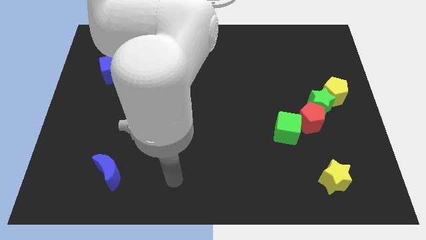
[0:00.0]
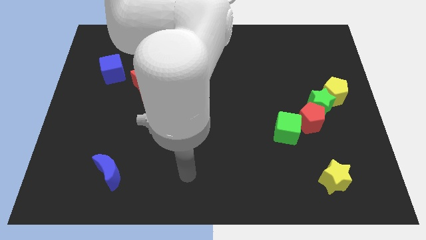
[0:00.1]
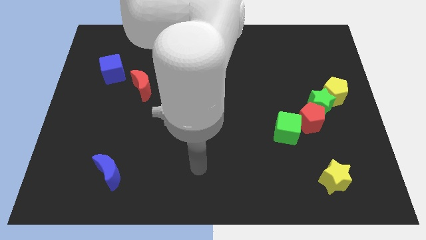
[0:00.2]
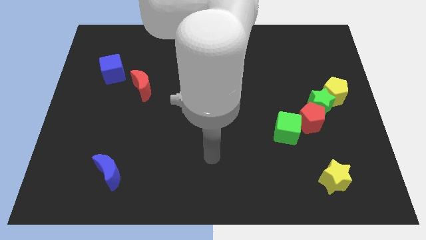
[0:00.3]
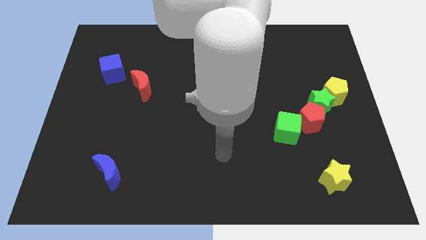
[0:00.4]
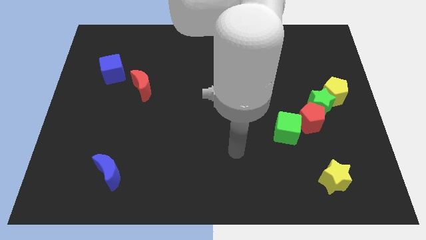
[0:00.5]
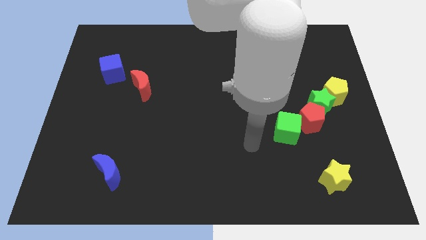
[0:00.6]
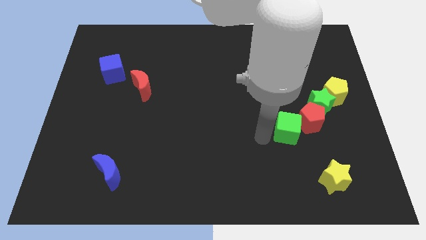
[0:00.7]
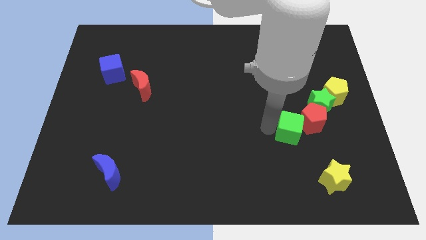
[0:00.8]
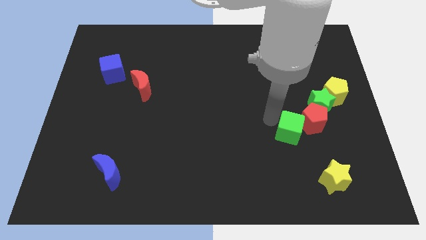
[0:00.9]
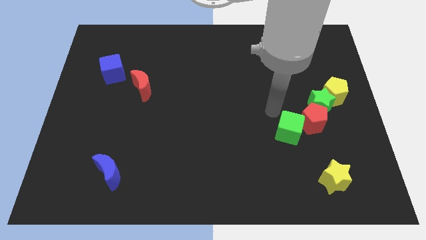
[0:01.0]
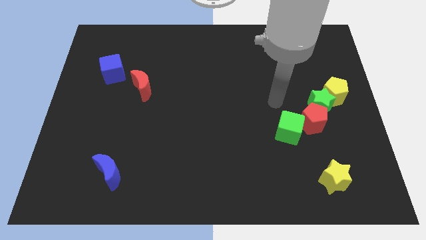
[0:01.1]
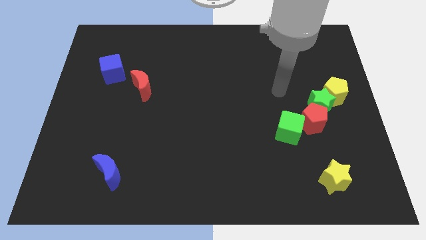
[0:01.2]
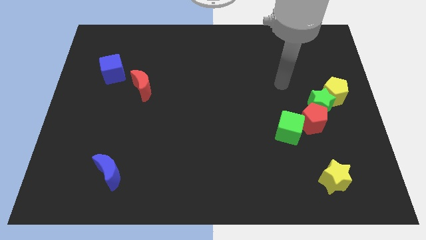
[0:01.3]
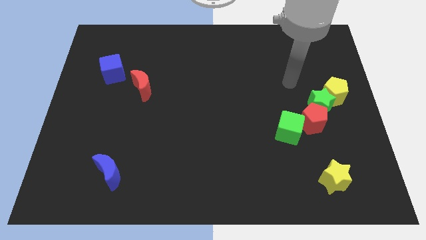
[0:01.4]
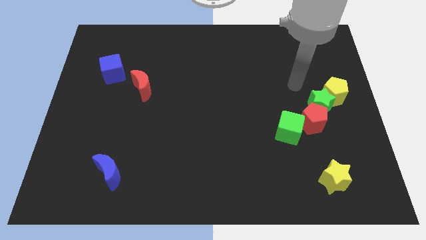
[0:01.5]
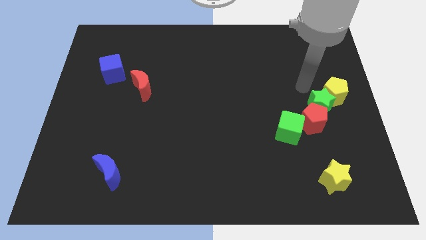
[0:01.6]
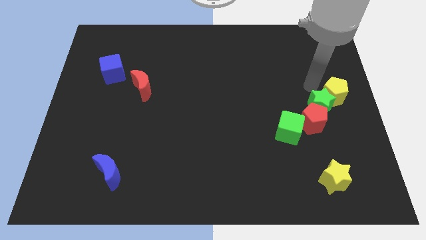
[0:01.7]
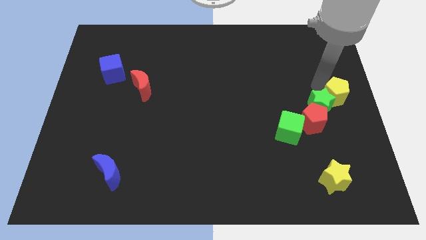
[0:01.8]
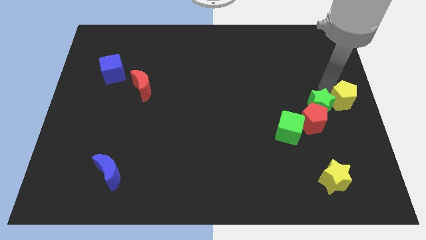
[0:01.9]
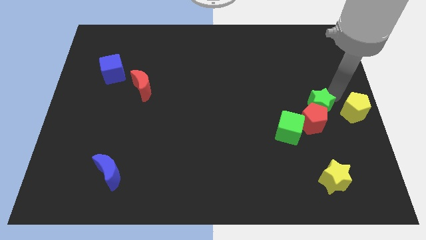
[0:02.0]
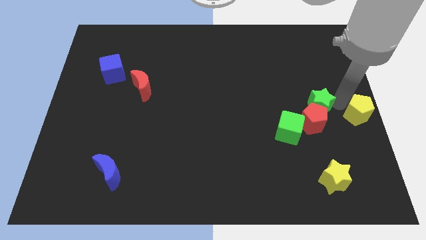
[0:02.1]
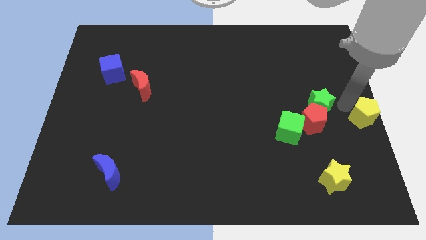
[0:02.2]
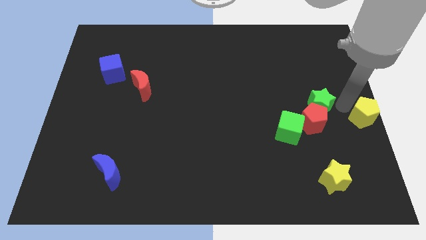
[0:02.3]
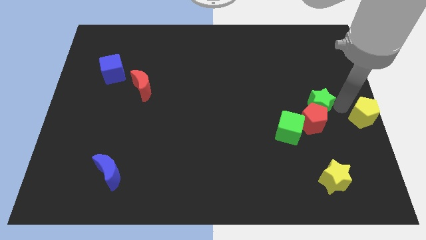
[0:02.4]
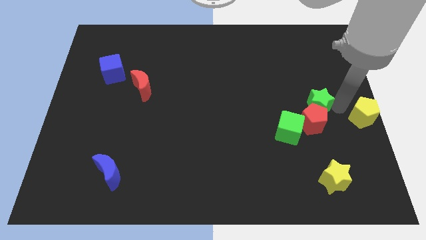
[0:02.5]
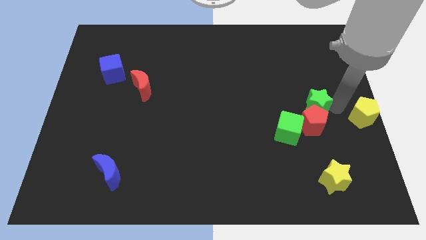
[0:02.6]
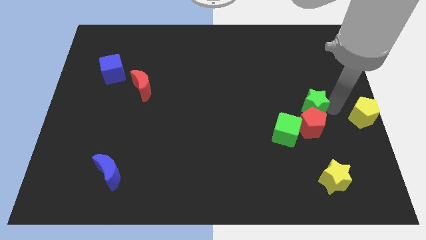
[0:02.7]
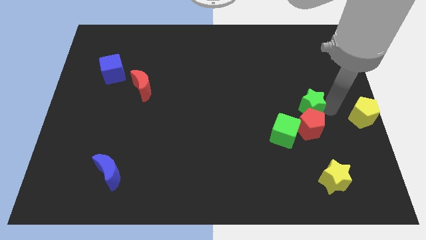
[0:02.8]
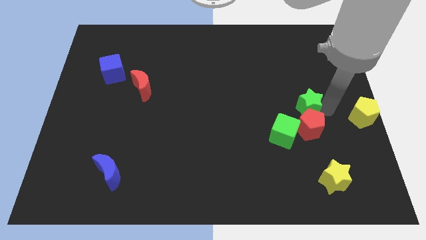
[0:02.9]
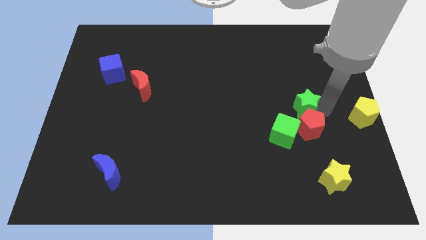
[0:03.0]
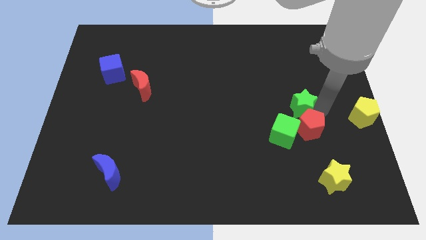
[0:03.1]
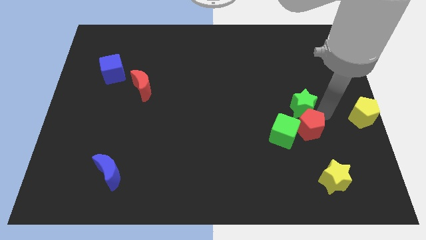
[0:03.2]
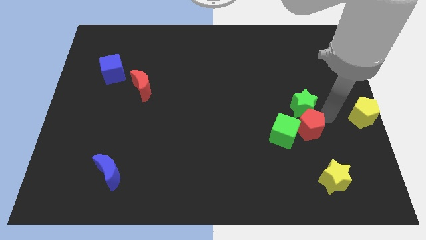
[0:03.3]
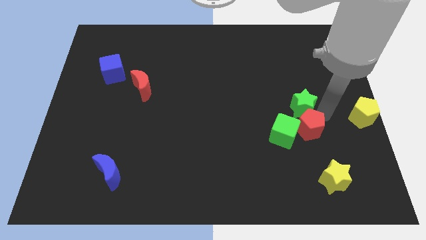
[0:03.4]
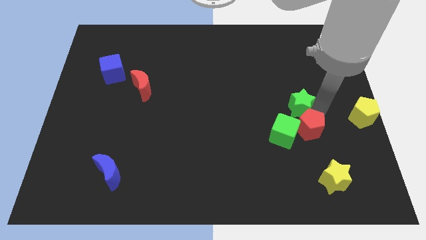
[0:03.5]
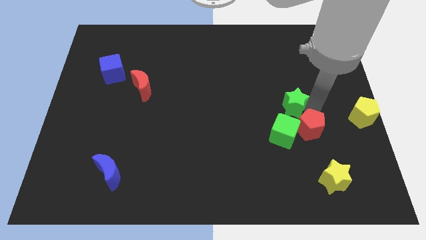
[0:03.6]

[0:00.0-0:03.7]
move the green star away from the red pentagon and yellow pentagon

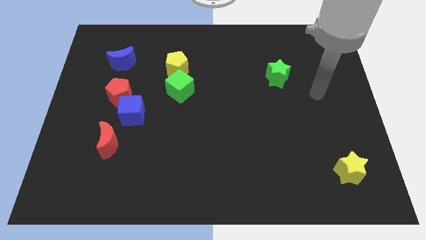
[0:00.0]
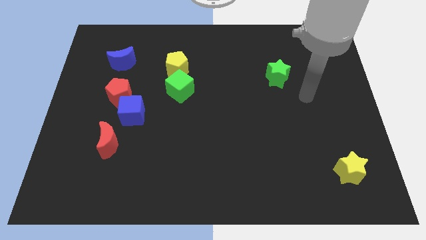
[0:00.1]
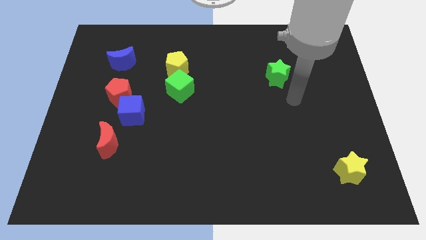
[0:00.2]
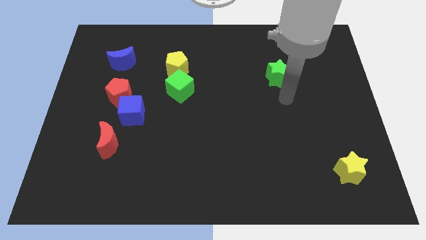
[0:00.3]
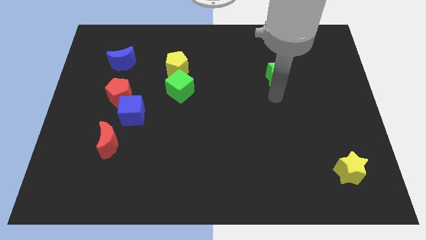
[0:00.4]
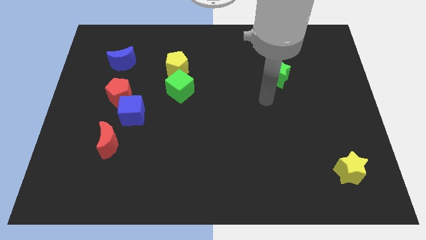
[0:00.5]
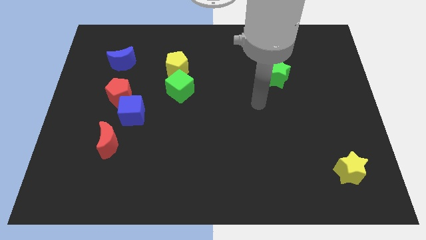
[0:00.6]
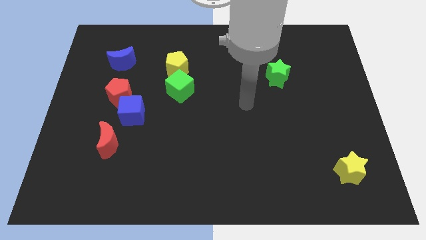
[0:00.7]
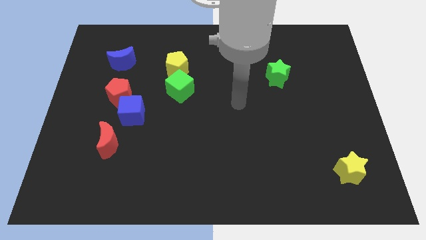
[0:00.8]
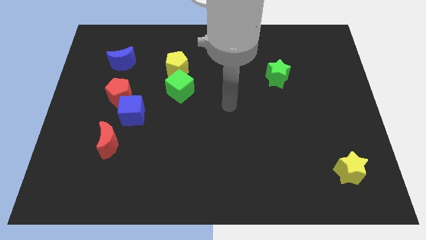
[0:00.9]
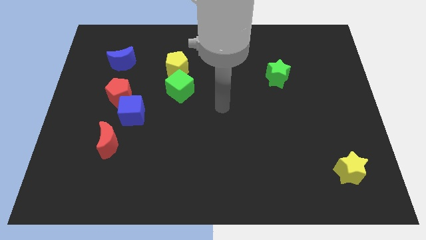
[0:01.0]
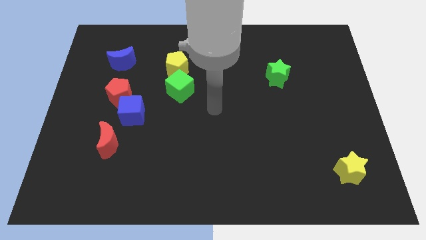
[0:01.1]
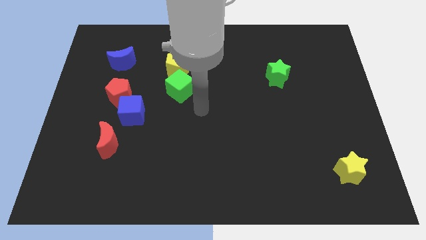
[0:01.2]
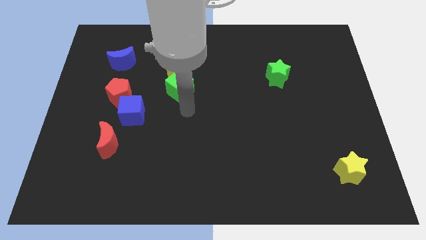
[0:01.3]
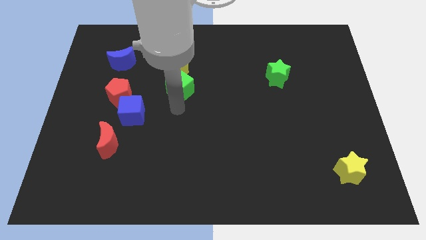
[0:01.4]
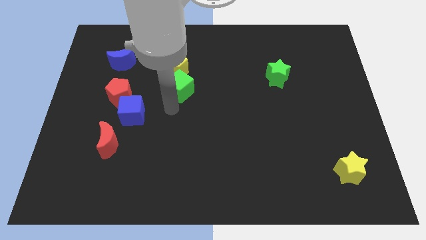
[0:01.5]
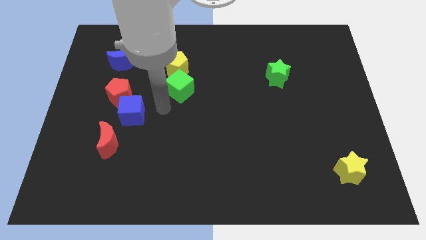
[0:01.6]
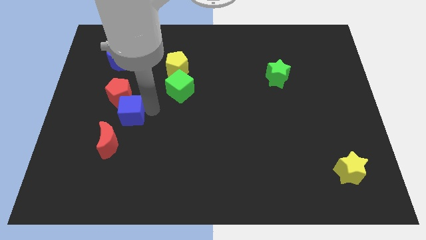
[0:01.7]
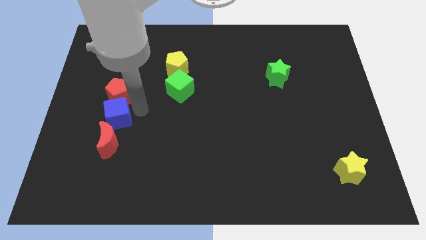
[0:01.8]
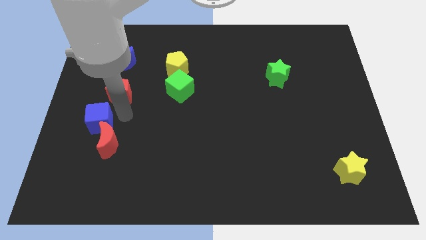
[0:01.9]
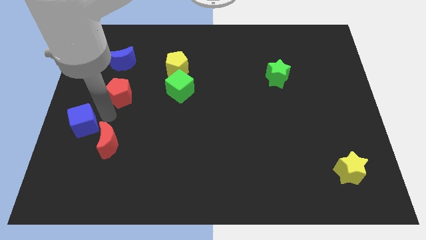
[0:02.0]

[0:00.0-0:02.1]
move the red pentagon away from the blue cube

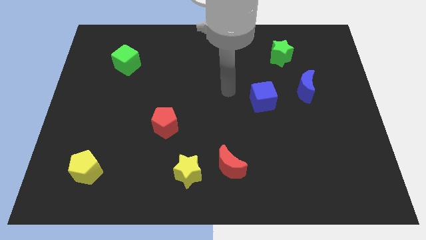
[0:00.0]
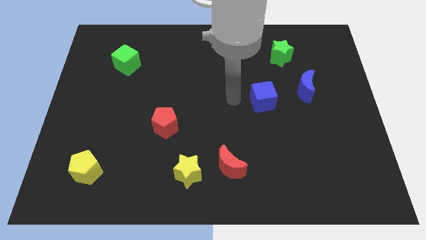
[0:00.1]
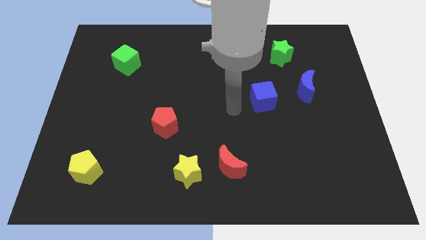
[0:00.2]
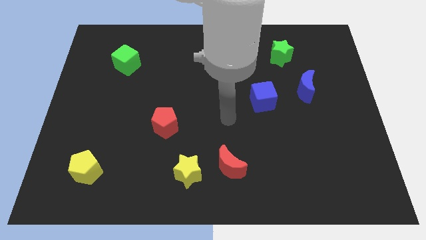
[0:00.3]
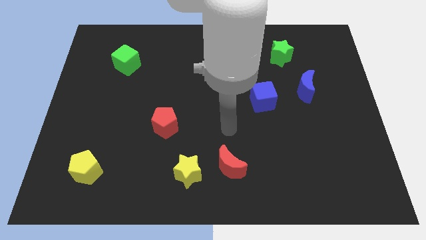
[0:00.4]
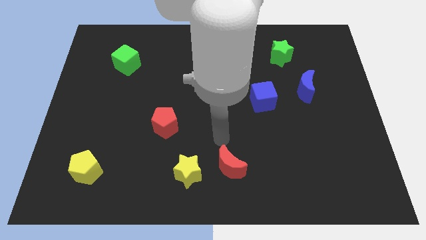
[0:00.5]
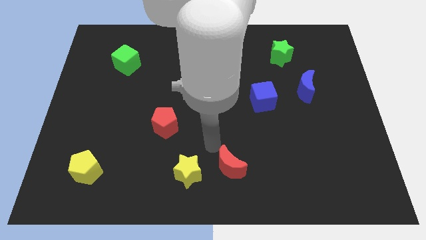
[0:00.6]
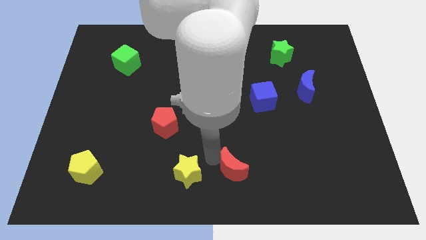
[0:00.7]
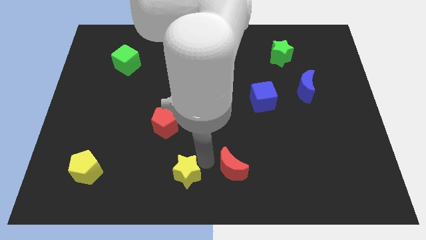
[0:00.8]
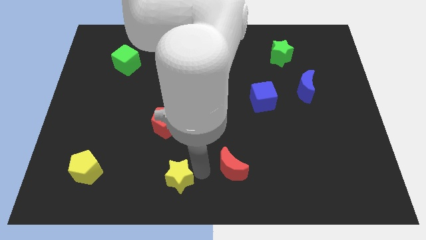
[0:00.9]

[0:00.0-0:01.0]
move the red moon away from the yellow star

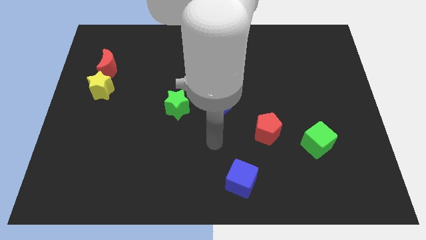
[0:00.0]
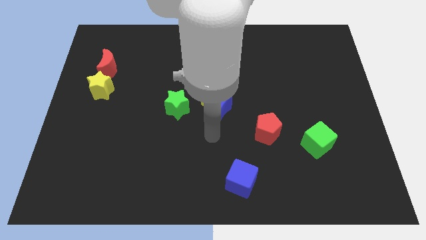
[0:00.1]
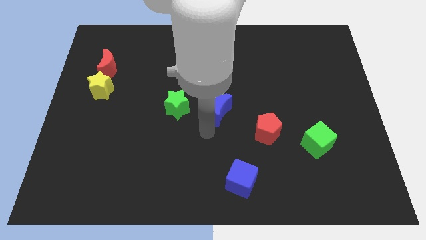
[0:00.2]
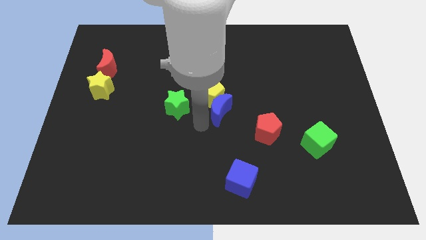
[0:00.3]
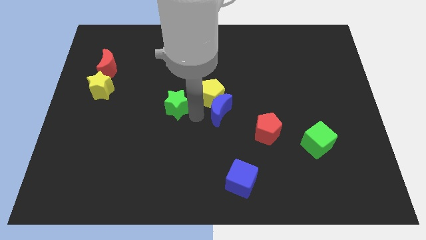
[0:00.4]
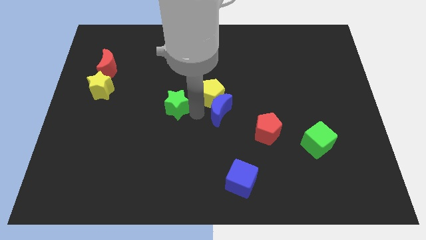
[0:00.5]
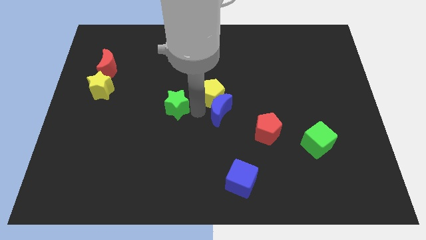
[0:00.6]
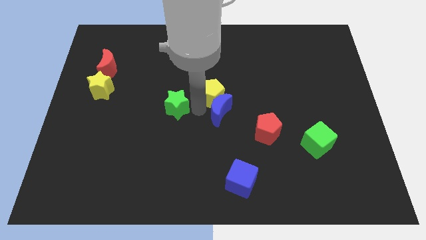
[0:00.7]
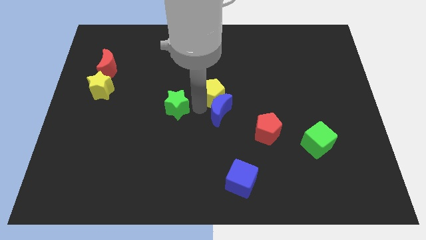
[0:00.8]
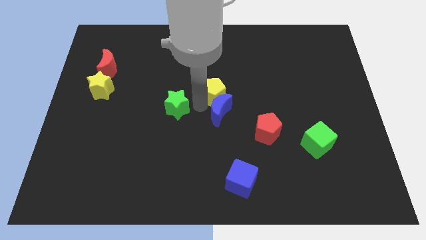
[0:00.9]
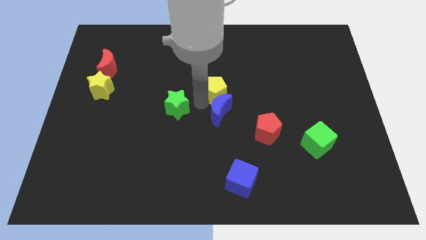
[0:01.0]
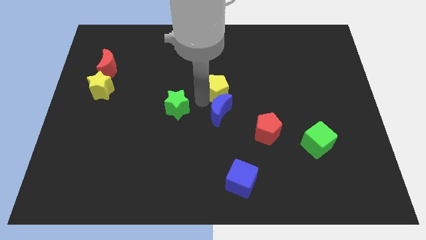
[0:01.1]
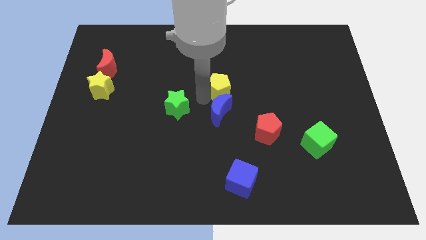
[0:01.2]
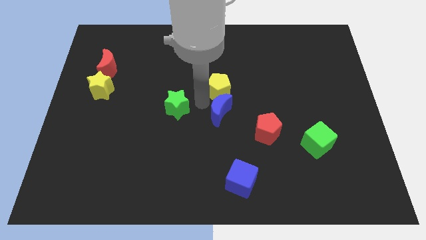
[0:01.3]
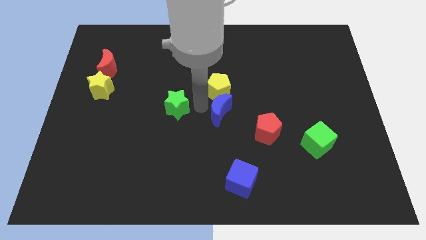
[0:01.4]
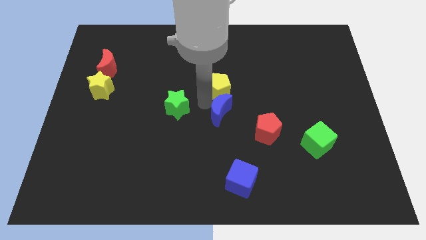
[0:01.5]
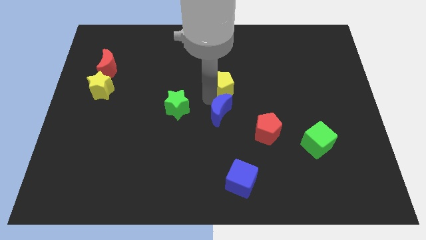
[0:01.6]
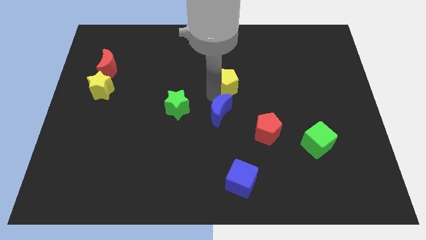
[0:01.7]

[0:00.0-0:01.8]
move the yellow pentagon away from the blue moon and green star

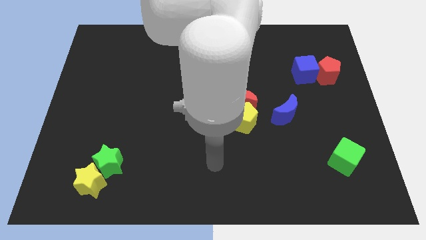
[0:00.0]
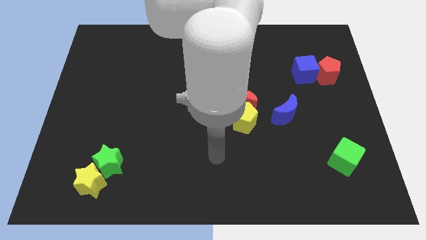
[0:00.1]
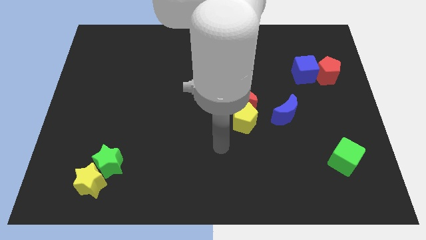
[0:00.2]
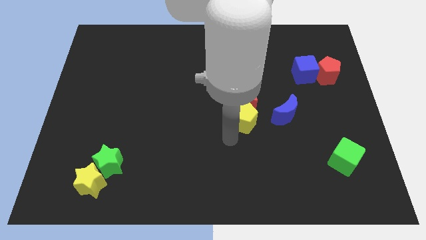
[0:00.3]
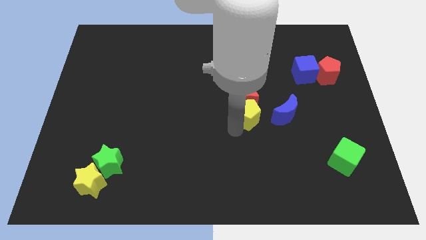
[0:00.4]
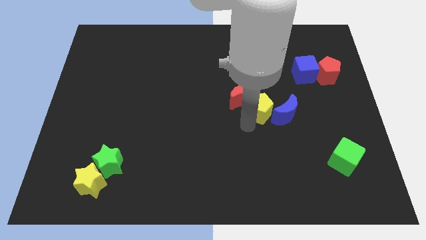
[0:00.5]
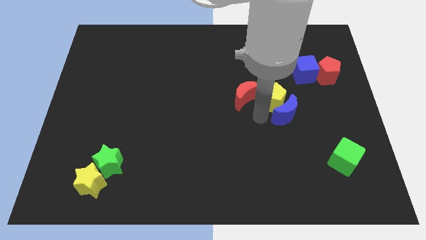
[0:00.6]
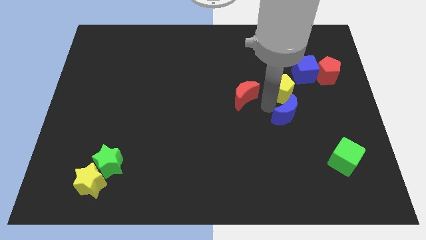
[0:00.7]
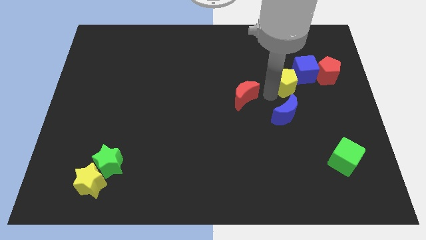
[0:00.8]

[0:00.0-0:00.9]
move the red moon away from the yellow pentagon
